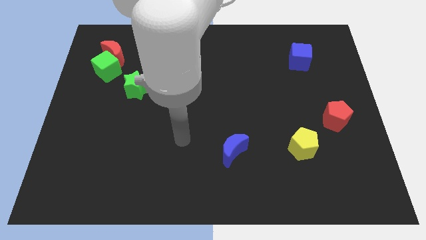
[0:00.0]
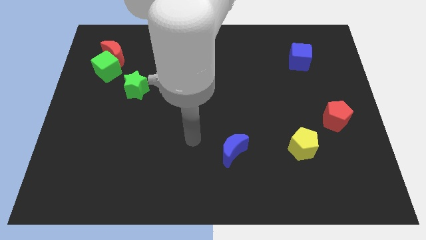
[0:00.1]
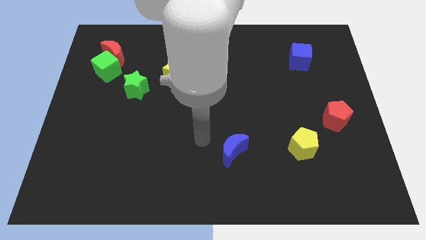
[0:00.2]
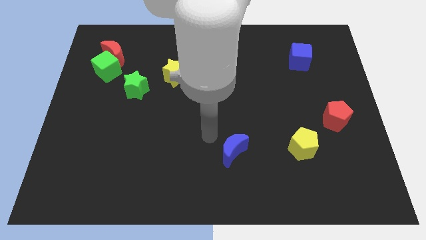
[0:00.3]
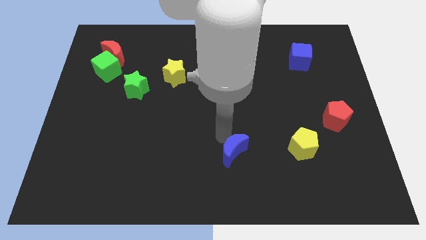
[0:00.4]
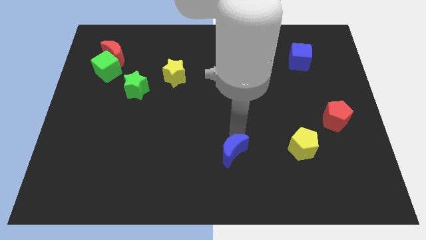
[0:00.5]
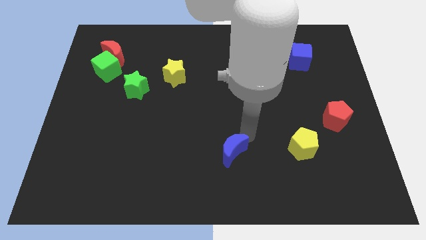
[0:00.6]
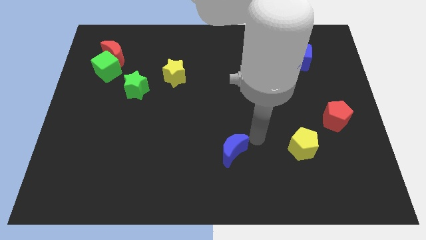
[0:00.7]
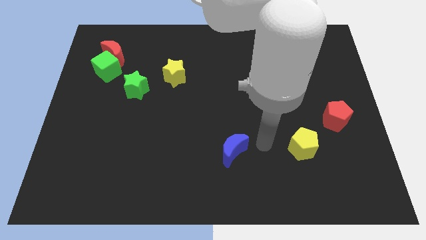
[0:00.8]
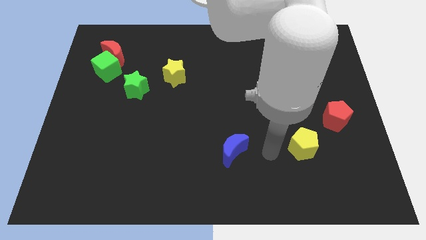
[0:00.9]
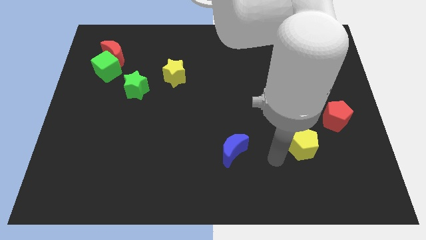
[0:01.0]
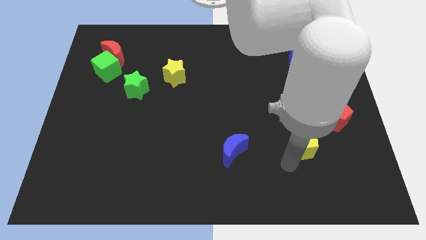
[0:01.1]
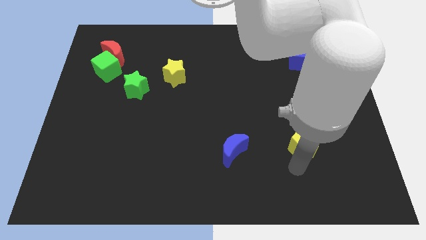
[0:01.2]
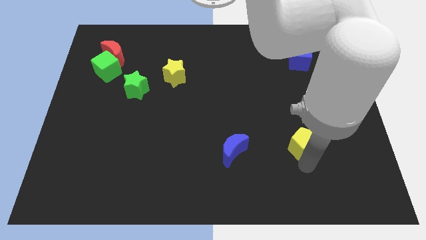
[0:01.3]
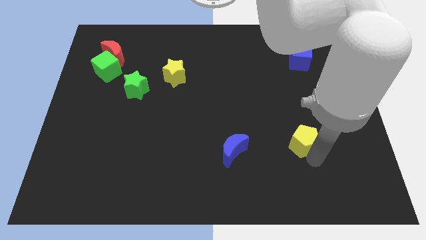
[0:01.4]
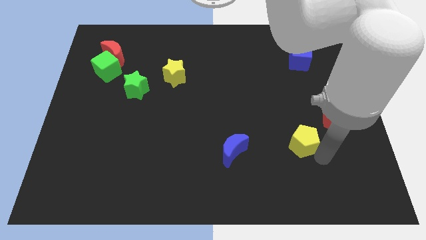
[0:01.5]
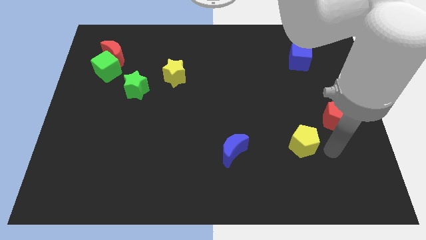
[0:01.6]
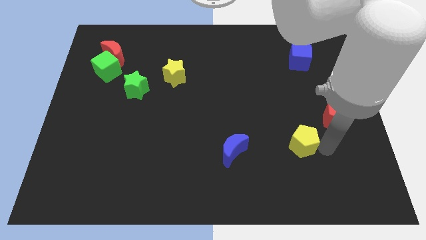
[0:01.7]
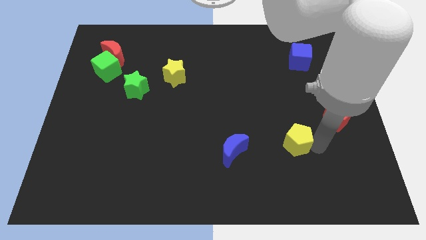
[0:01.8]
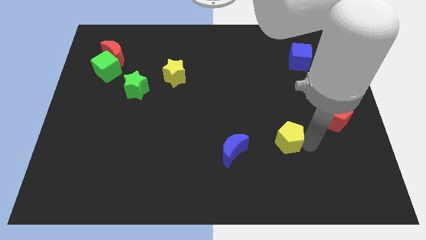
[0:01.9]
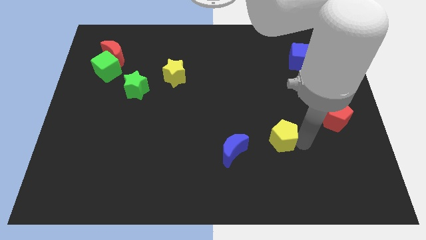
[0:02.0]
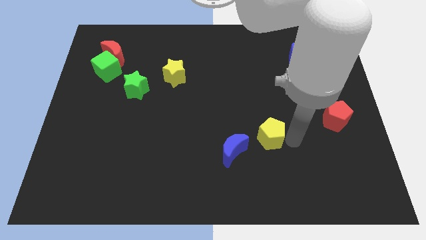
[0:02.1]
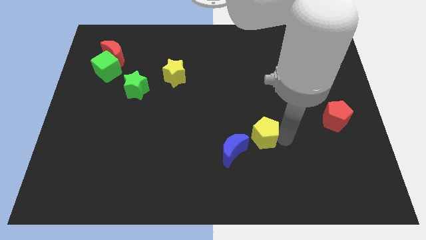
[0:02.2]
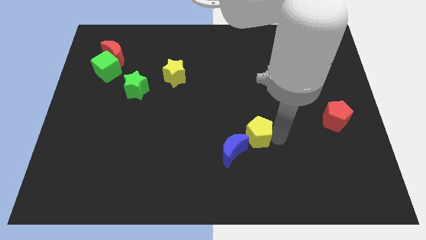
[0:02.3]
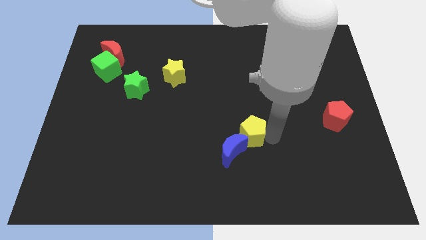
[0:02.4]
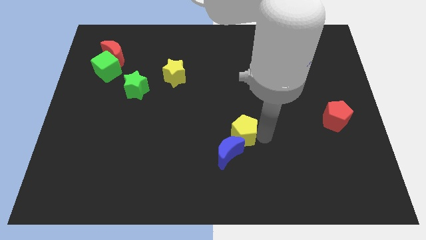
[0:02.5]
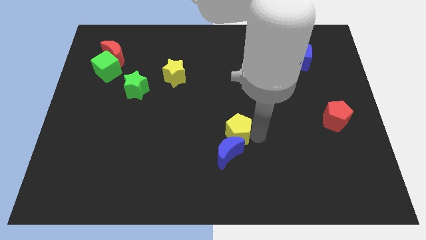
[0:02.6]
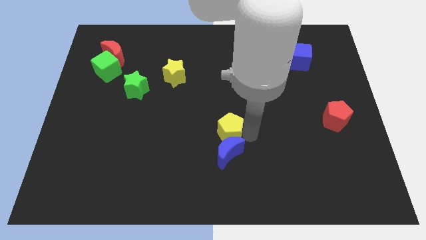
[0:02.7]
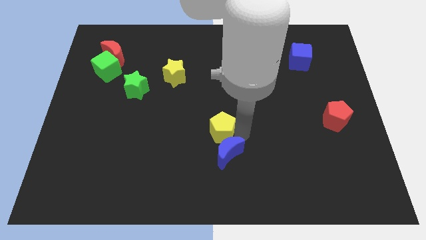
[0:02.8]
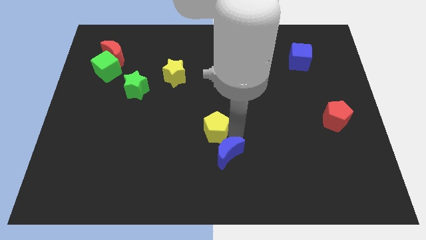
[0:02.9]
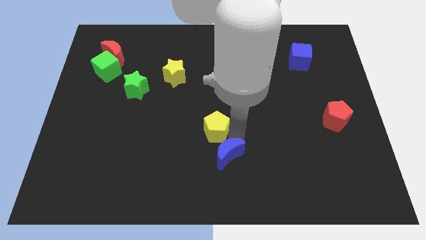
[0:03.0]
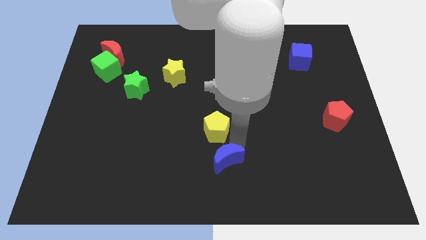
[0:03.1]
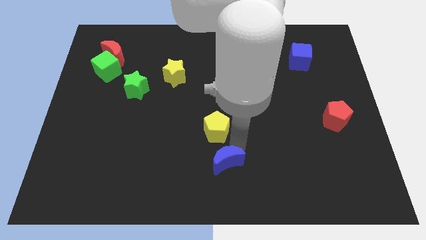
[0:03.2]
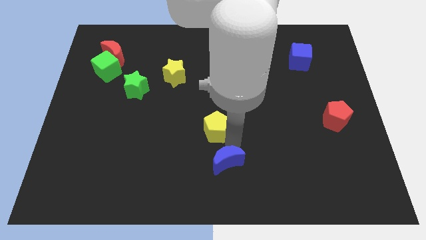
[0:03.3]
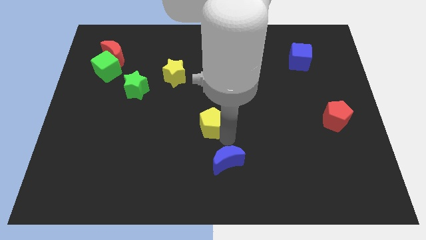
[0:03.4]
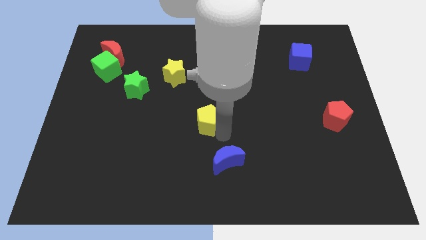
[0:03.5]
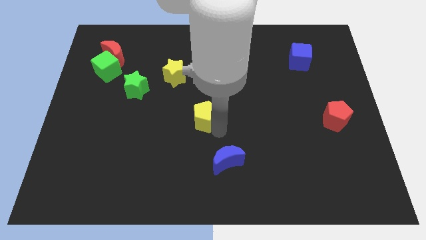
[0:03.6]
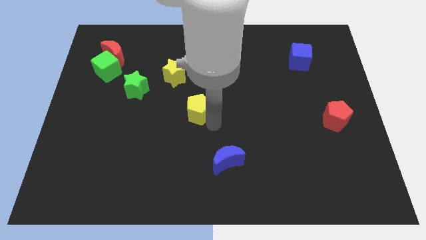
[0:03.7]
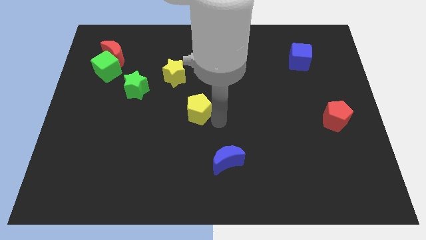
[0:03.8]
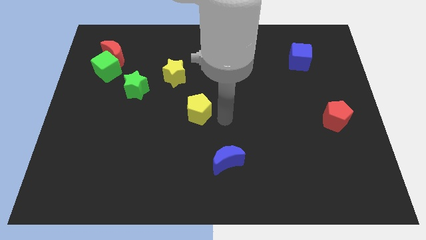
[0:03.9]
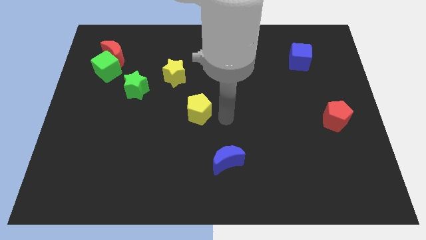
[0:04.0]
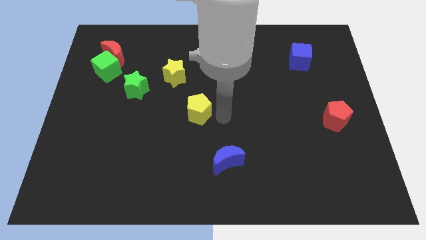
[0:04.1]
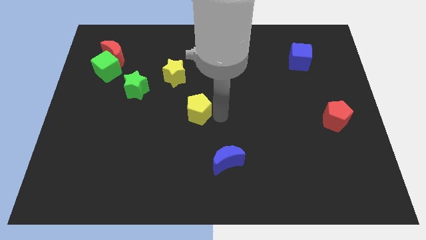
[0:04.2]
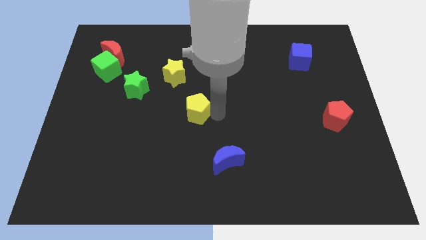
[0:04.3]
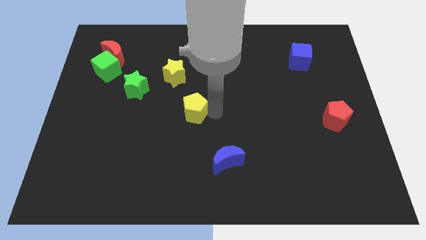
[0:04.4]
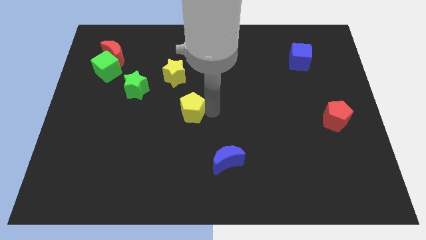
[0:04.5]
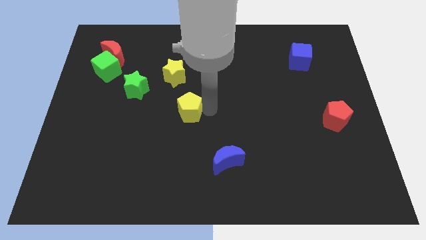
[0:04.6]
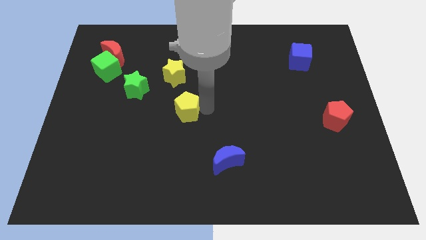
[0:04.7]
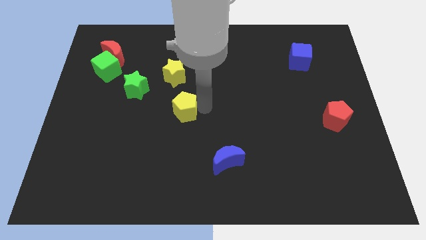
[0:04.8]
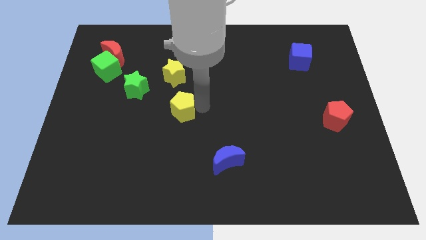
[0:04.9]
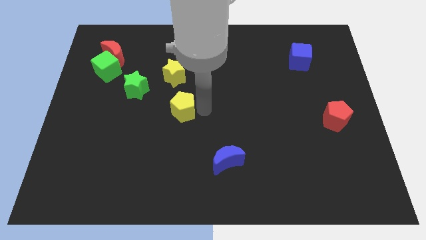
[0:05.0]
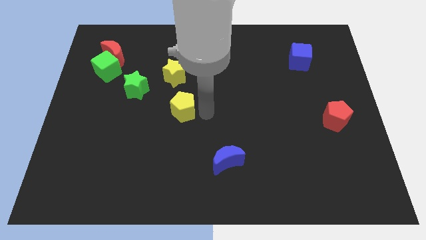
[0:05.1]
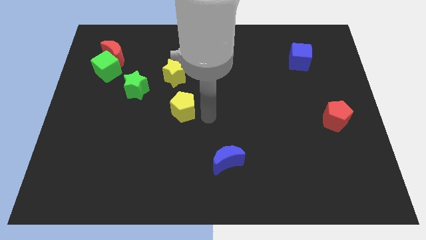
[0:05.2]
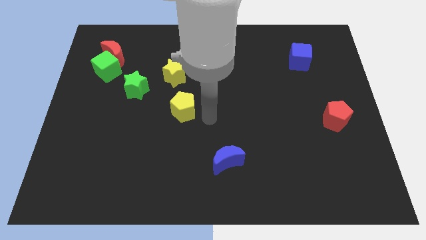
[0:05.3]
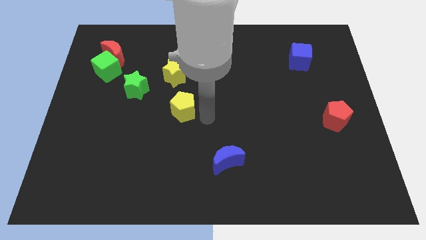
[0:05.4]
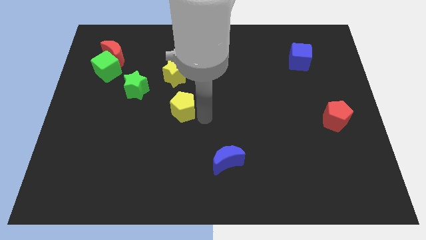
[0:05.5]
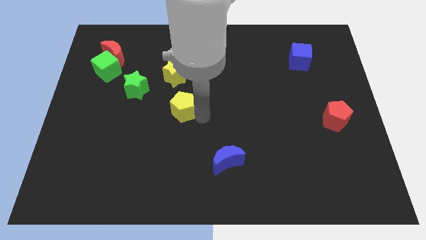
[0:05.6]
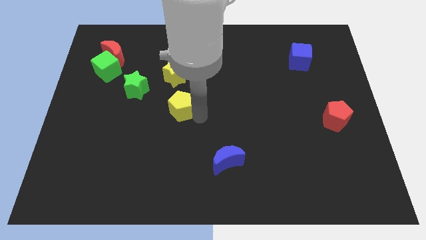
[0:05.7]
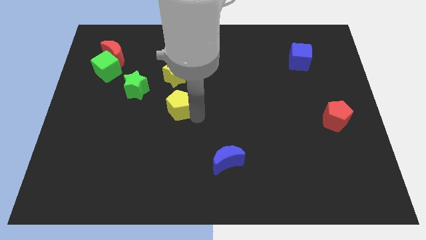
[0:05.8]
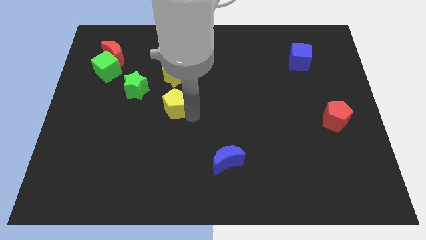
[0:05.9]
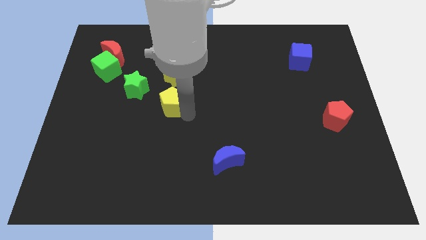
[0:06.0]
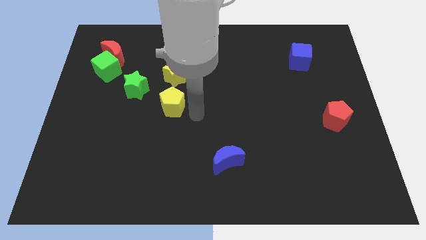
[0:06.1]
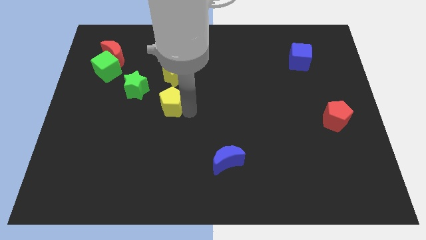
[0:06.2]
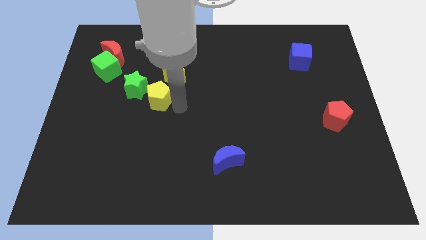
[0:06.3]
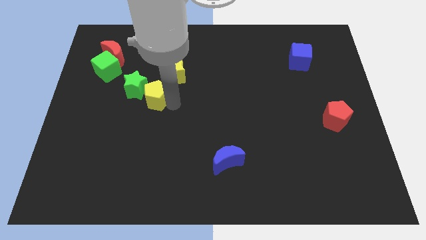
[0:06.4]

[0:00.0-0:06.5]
slide the yellow pentagon to the green star
